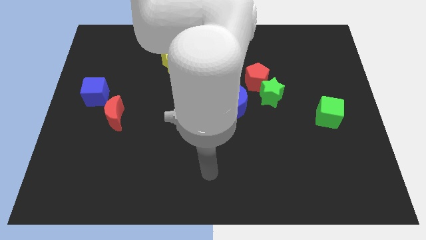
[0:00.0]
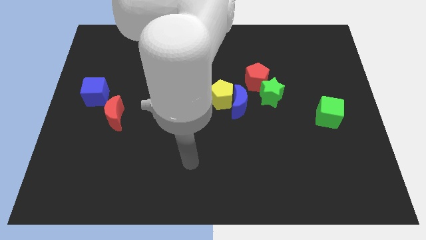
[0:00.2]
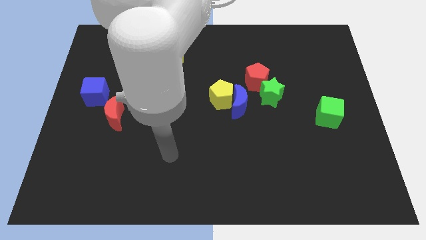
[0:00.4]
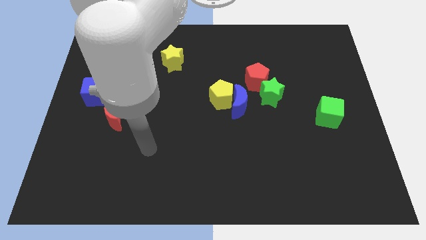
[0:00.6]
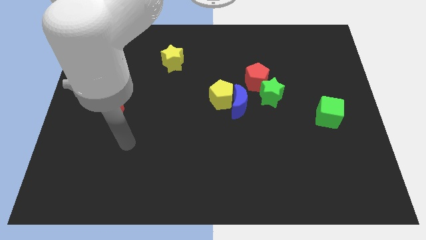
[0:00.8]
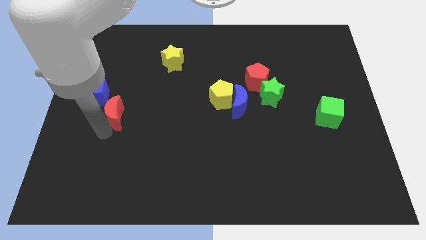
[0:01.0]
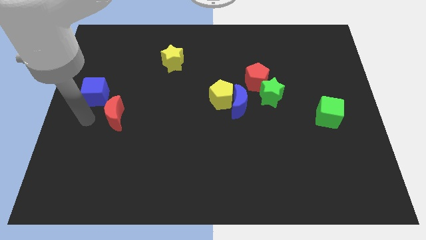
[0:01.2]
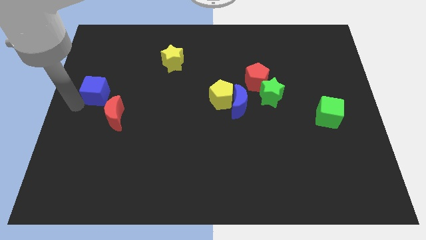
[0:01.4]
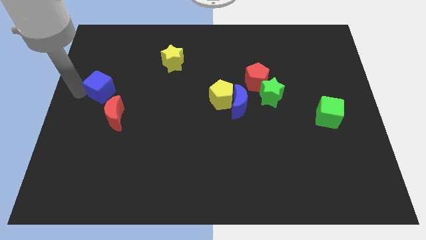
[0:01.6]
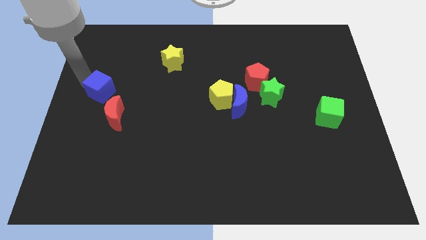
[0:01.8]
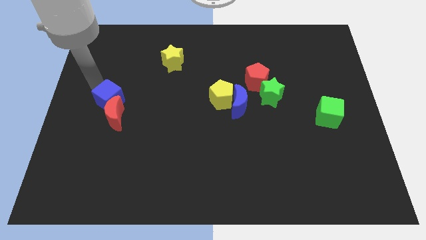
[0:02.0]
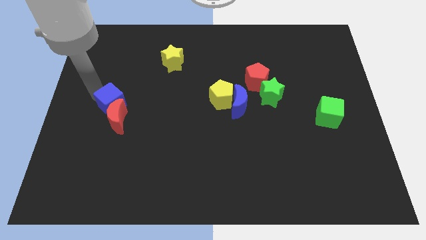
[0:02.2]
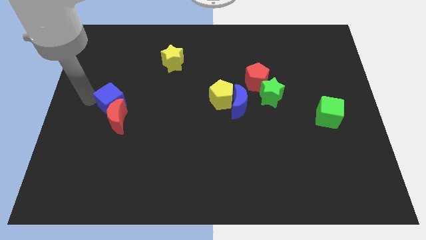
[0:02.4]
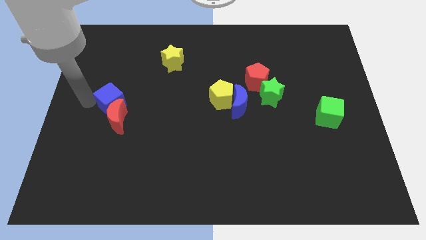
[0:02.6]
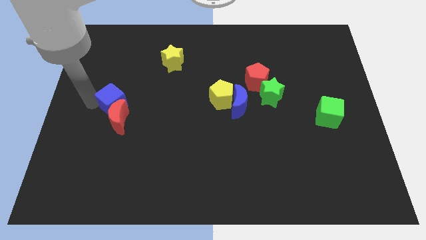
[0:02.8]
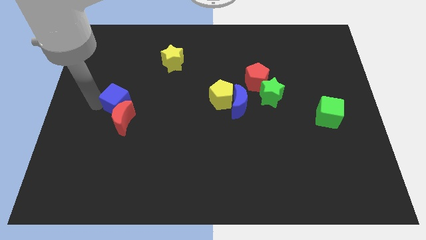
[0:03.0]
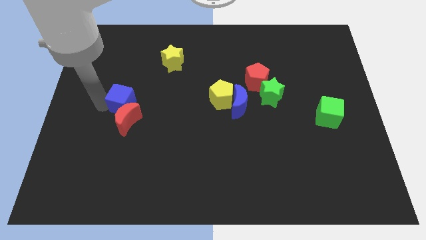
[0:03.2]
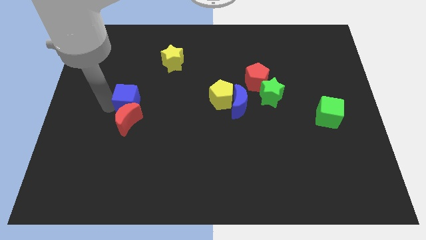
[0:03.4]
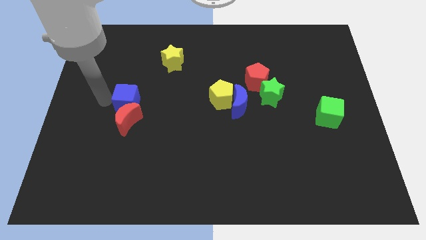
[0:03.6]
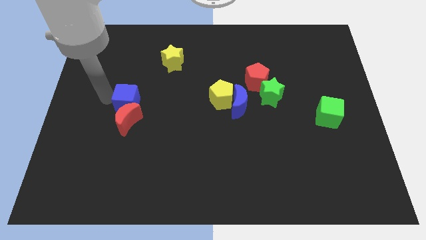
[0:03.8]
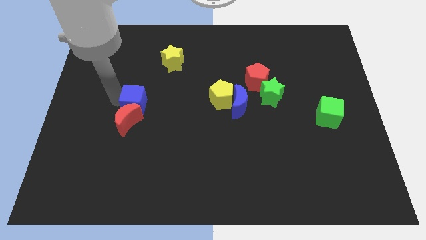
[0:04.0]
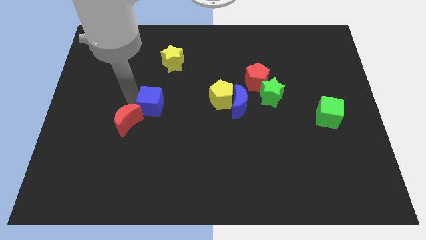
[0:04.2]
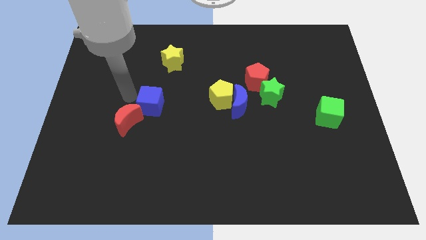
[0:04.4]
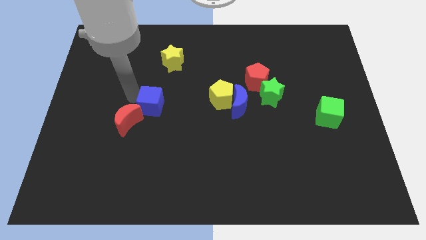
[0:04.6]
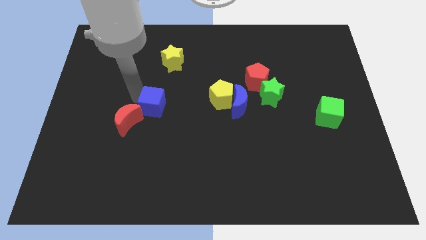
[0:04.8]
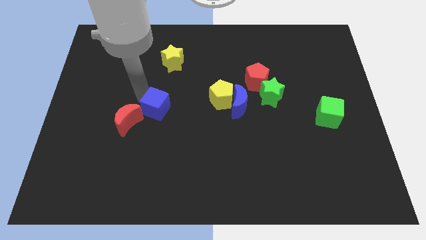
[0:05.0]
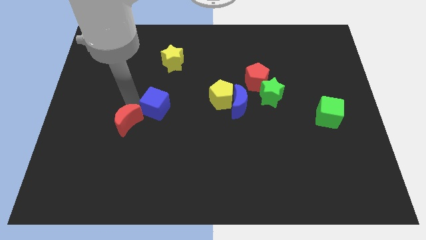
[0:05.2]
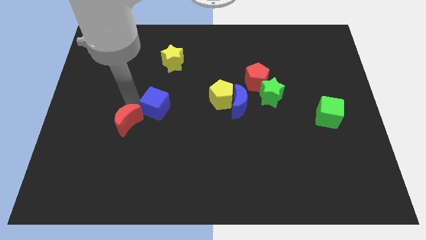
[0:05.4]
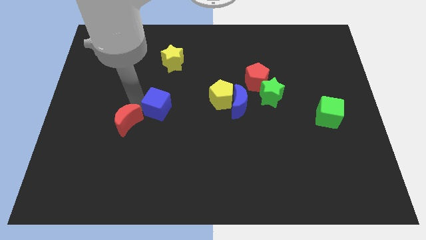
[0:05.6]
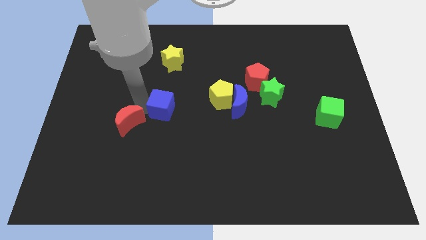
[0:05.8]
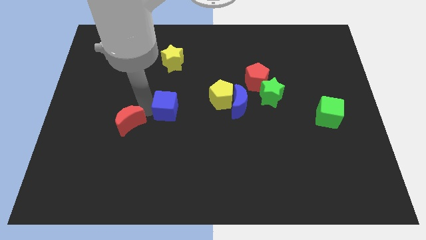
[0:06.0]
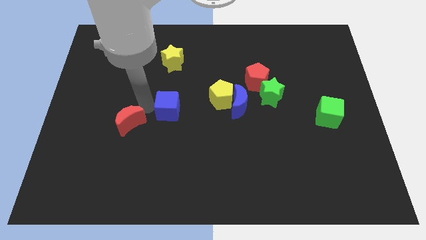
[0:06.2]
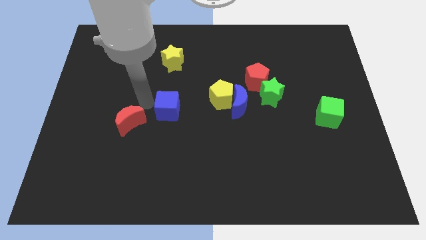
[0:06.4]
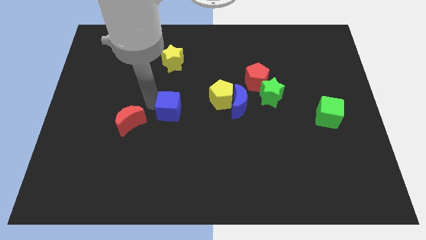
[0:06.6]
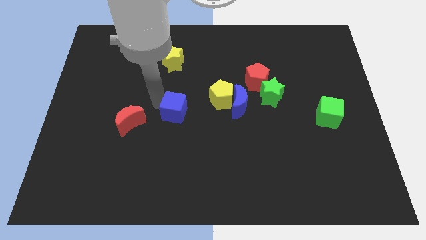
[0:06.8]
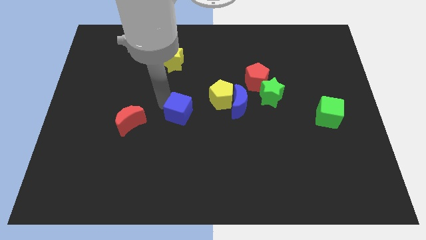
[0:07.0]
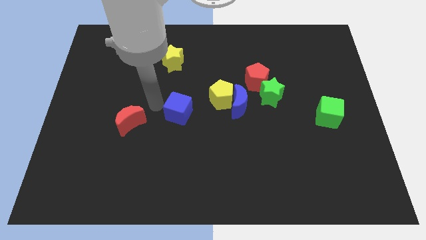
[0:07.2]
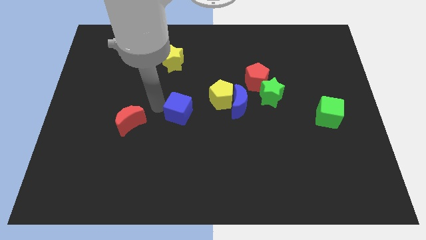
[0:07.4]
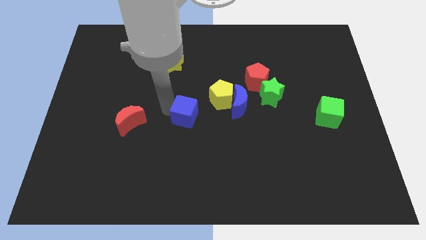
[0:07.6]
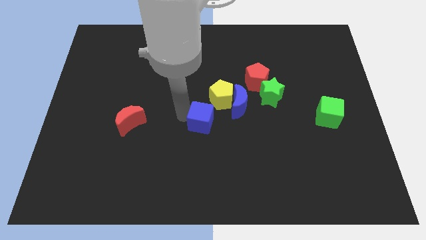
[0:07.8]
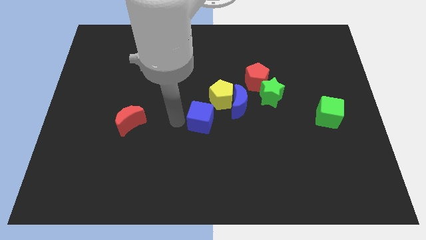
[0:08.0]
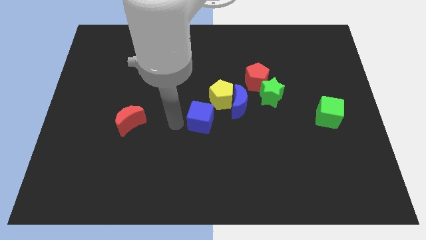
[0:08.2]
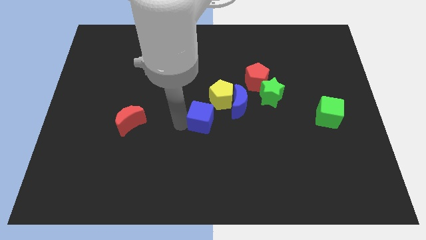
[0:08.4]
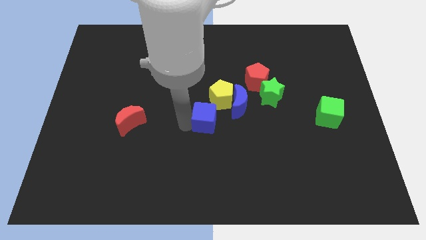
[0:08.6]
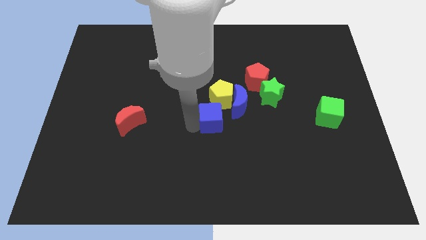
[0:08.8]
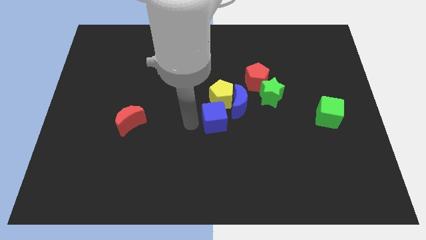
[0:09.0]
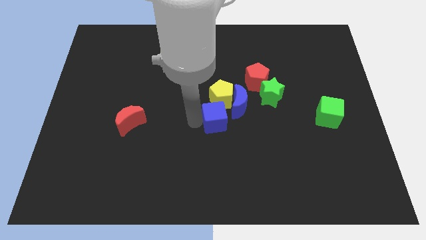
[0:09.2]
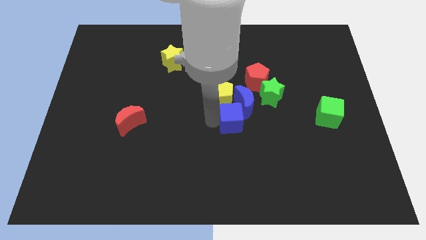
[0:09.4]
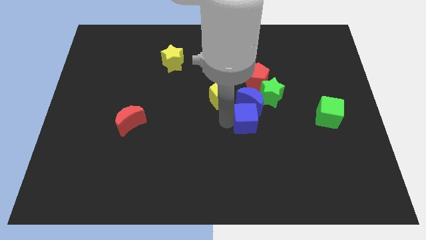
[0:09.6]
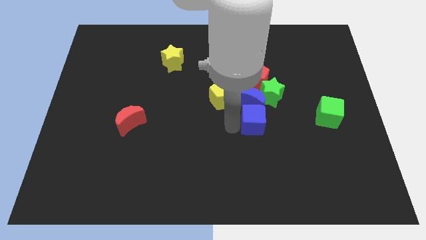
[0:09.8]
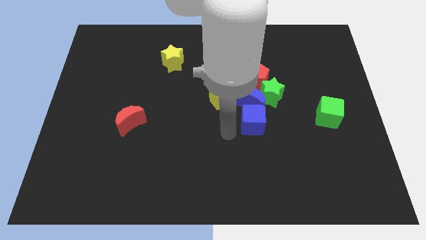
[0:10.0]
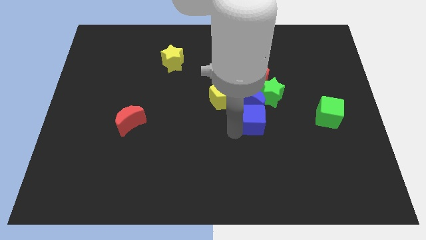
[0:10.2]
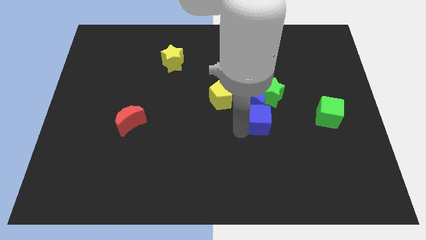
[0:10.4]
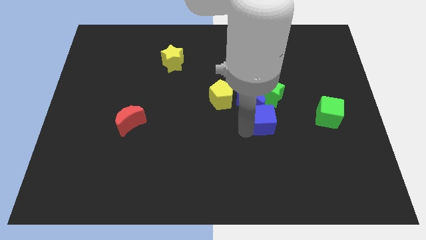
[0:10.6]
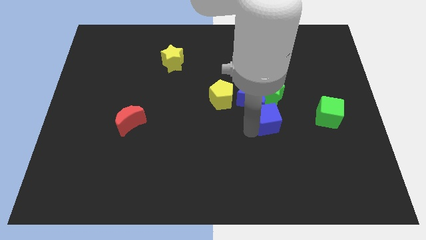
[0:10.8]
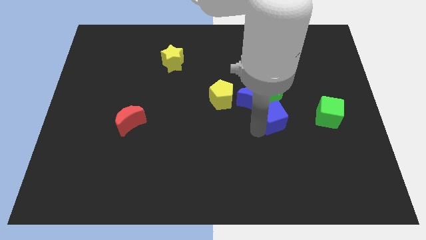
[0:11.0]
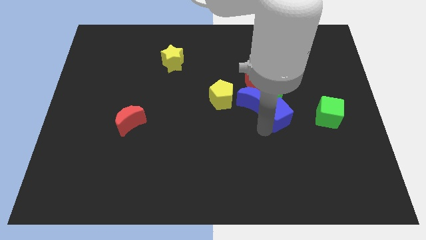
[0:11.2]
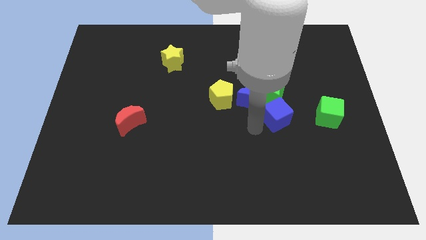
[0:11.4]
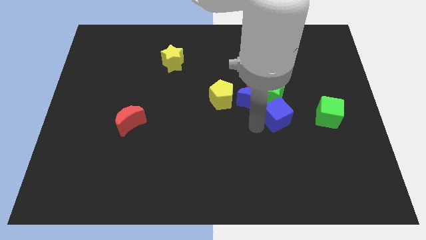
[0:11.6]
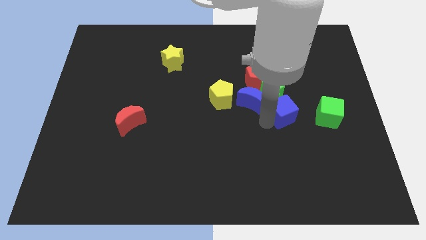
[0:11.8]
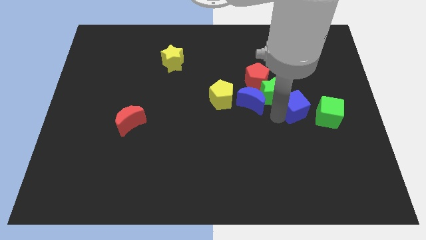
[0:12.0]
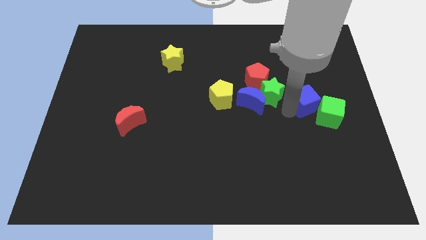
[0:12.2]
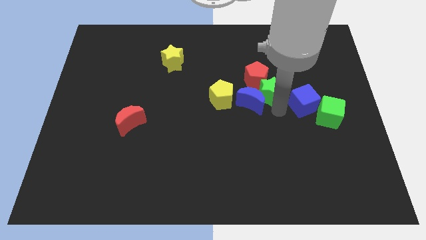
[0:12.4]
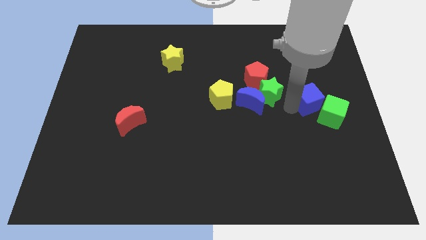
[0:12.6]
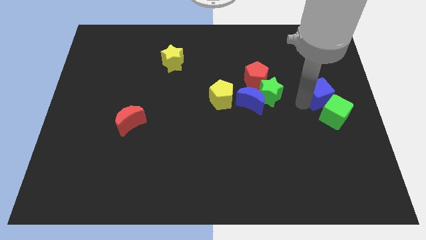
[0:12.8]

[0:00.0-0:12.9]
push the blue cube to the right side

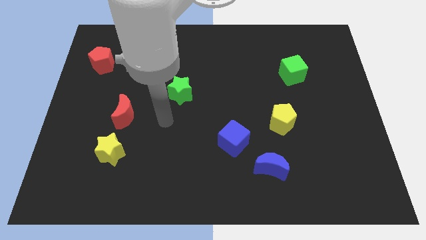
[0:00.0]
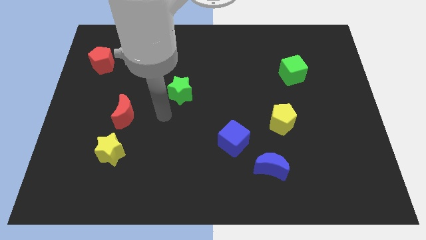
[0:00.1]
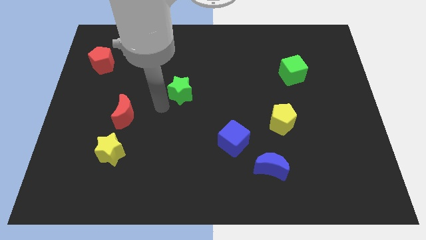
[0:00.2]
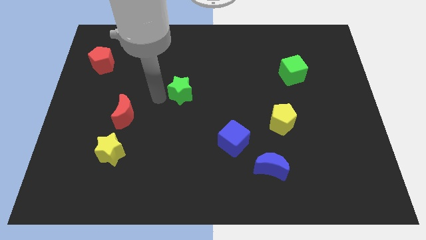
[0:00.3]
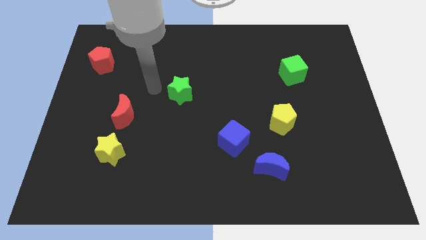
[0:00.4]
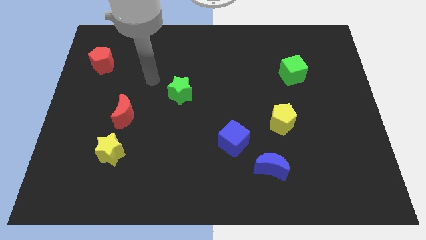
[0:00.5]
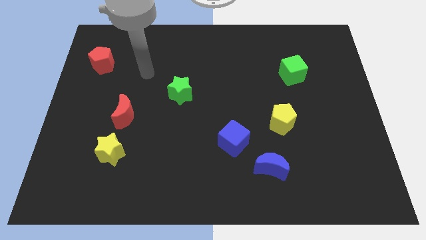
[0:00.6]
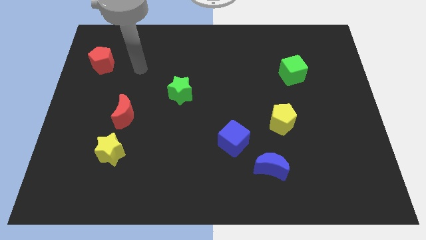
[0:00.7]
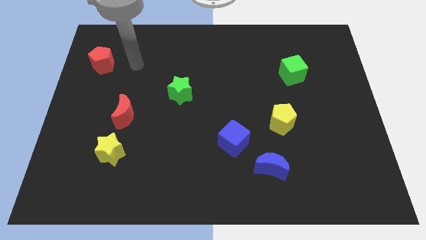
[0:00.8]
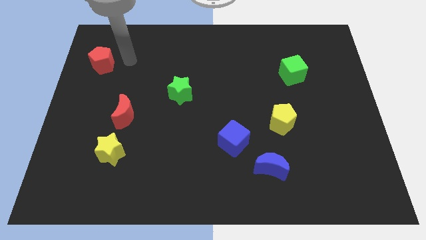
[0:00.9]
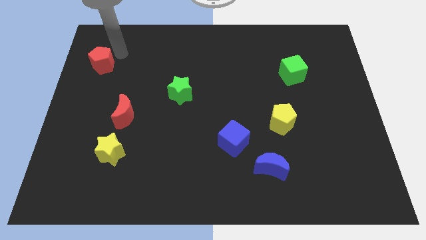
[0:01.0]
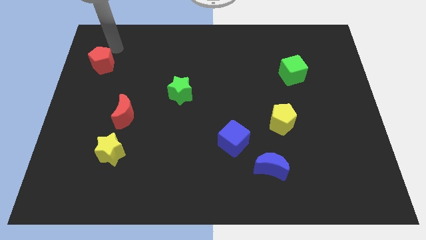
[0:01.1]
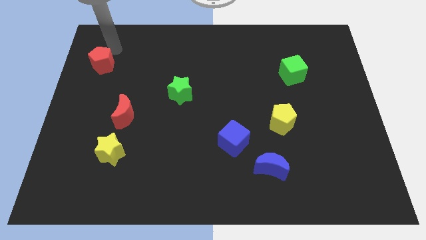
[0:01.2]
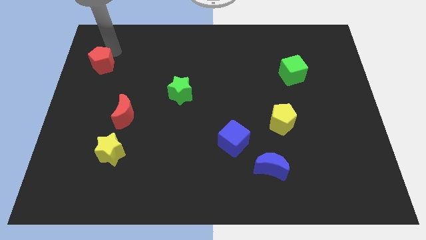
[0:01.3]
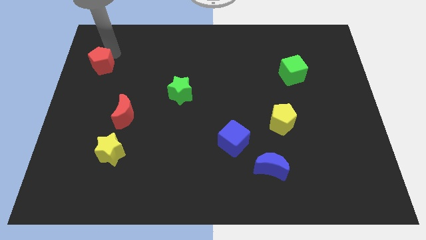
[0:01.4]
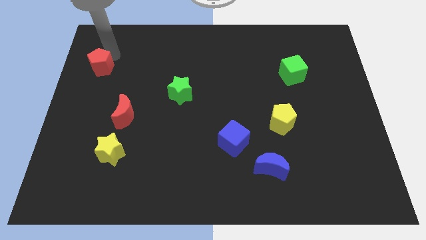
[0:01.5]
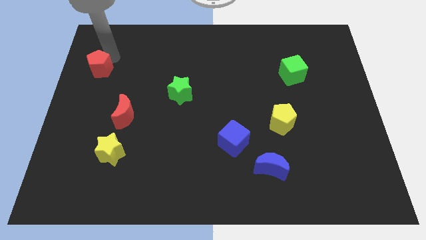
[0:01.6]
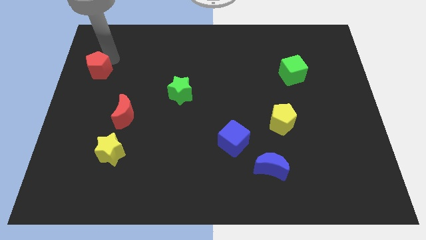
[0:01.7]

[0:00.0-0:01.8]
slide the red pentagon to the center left
